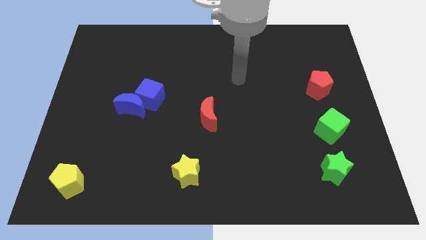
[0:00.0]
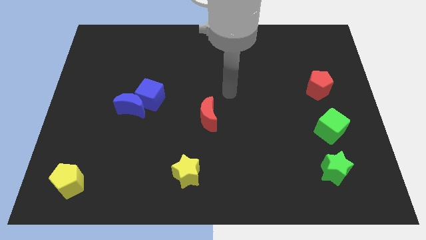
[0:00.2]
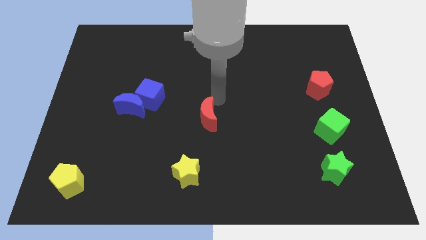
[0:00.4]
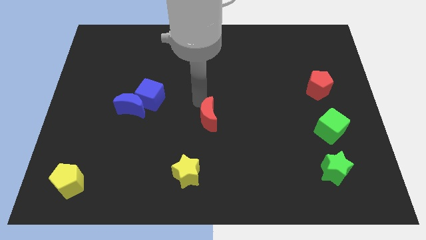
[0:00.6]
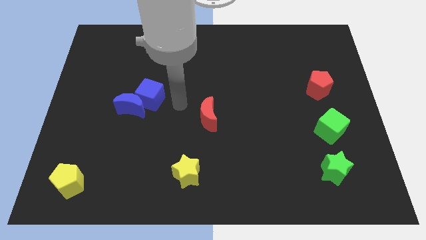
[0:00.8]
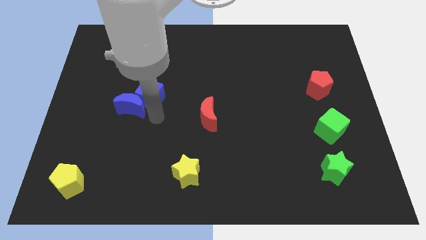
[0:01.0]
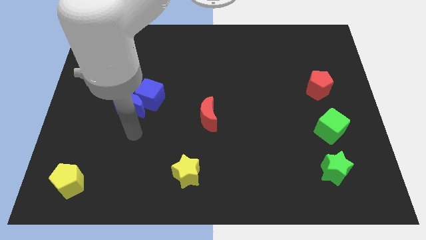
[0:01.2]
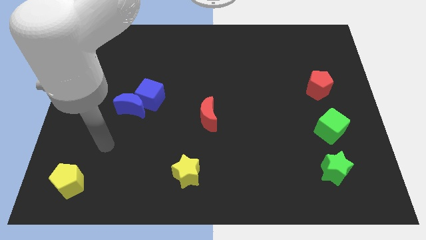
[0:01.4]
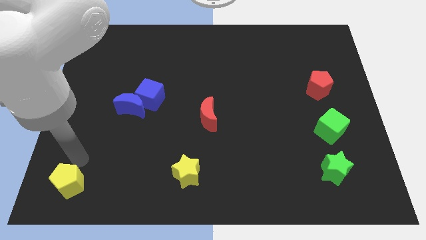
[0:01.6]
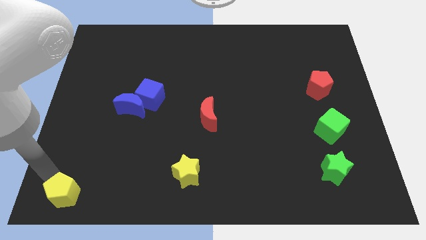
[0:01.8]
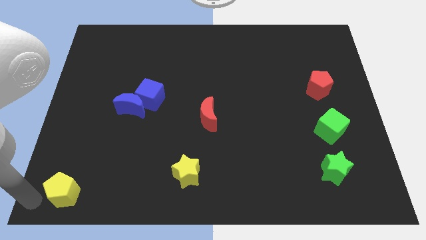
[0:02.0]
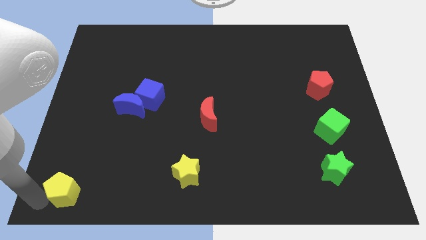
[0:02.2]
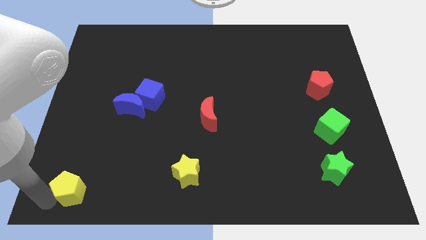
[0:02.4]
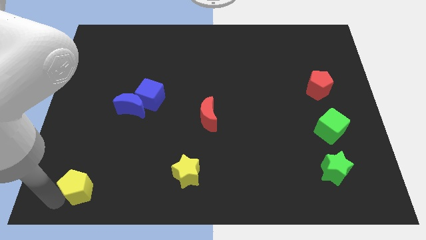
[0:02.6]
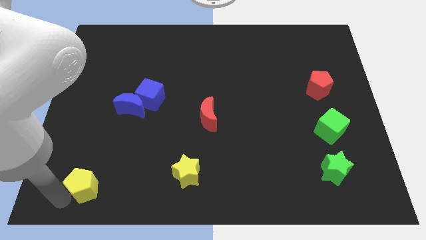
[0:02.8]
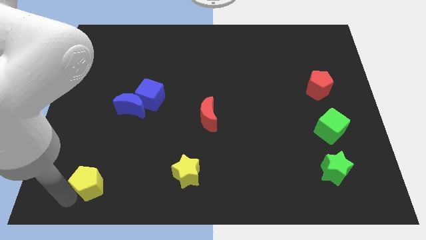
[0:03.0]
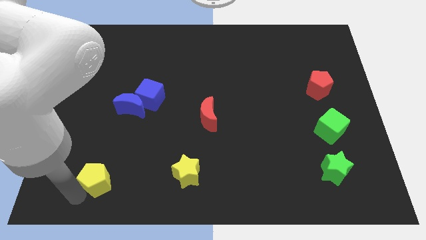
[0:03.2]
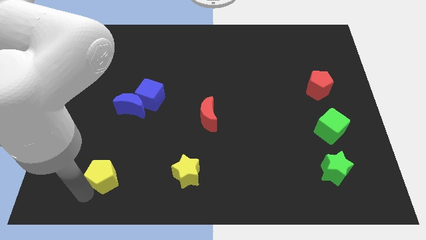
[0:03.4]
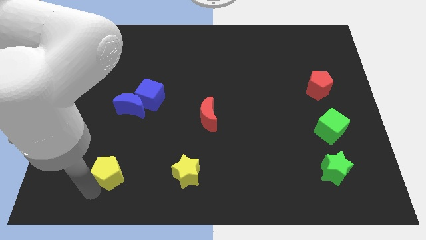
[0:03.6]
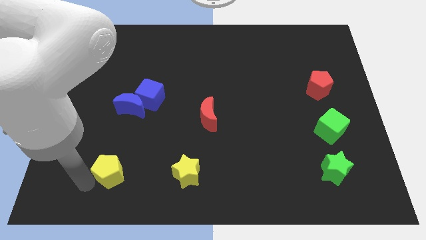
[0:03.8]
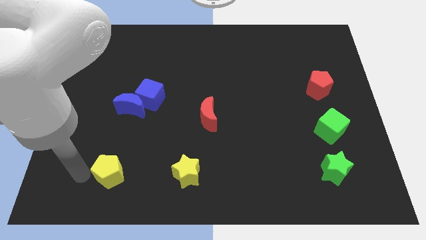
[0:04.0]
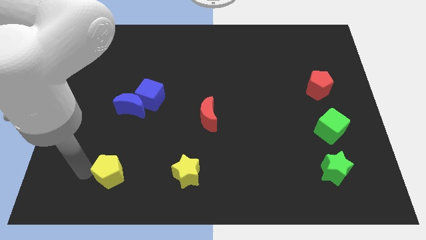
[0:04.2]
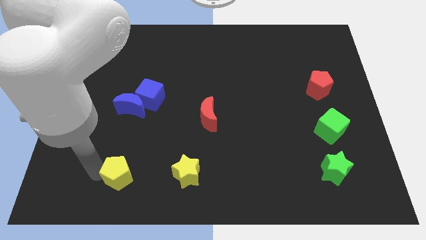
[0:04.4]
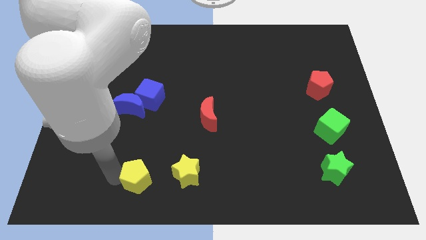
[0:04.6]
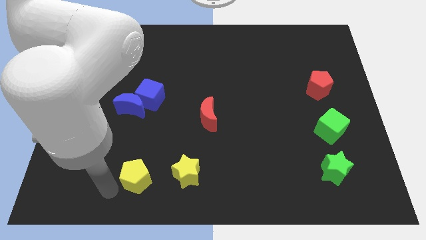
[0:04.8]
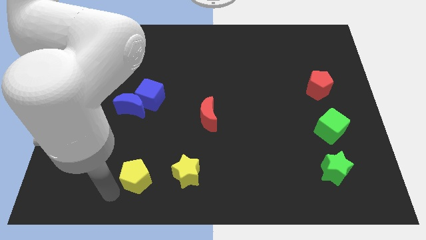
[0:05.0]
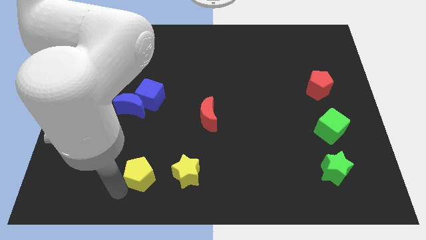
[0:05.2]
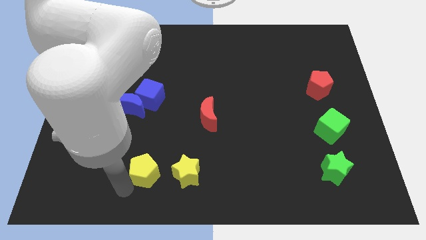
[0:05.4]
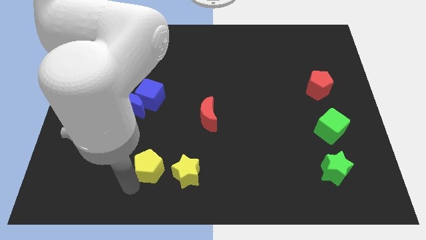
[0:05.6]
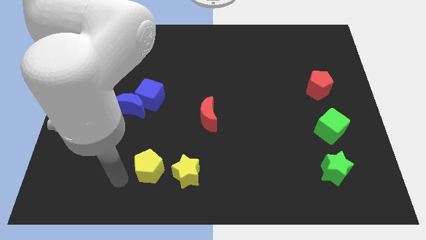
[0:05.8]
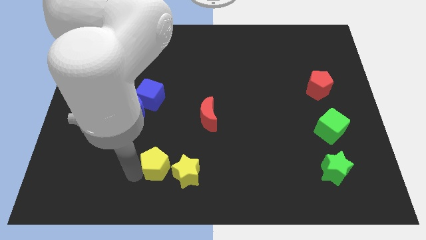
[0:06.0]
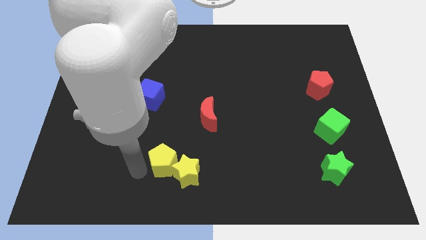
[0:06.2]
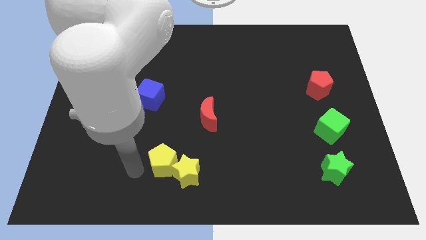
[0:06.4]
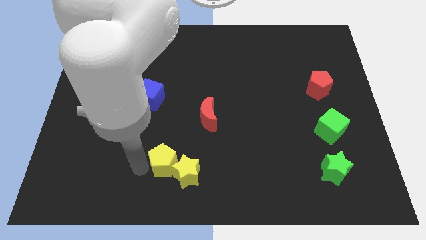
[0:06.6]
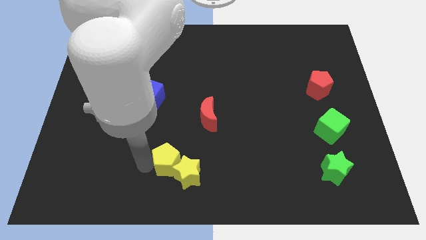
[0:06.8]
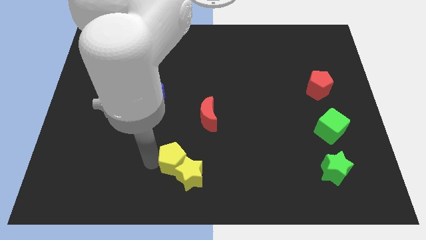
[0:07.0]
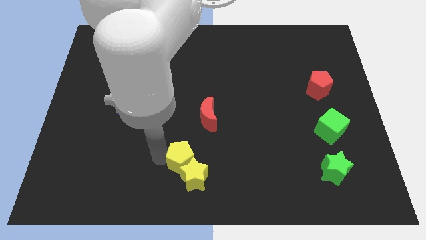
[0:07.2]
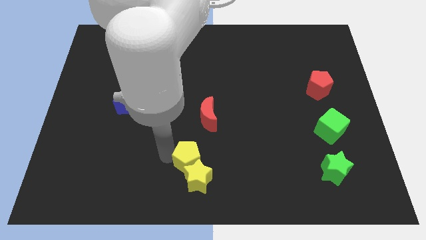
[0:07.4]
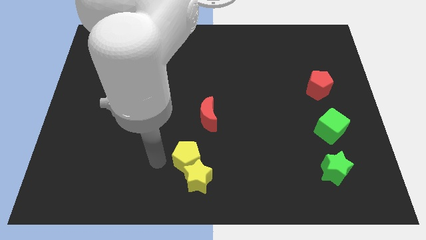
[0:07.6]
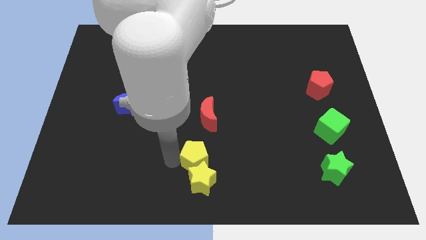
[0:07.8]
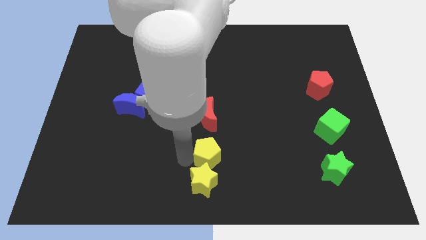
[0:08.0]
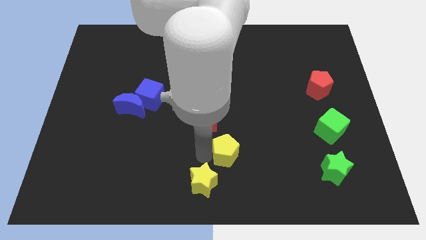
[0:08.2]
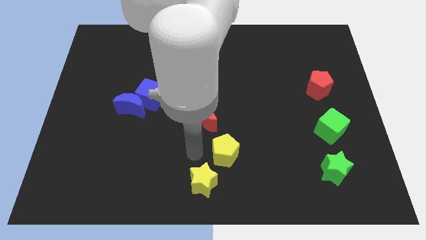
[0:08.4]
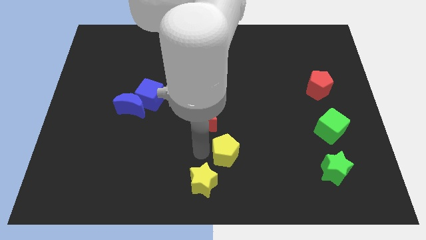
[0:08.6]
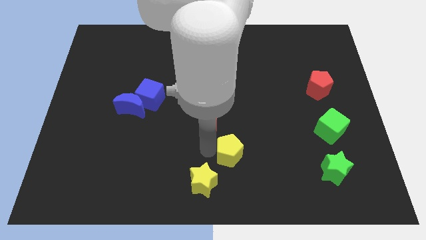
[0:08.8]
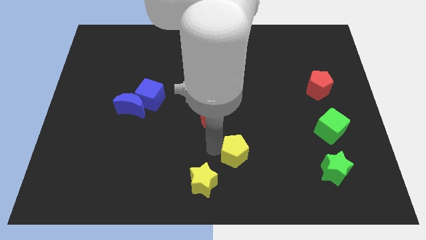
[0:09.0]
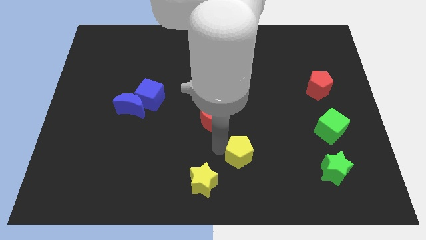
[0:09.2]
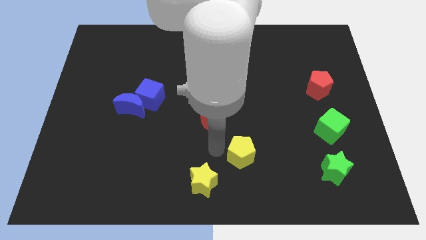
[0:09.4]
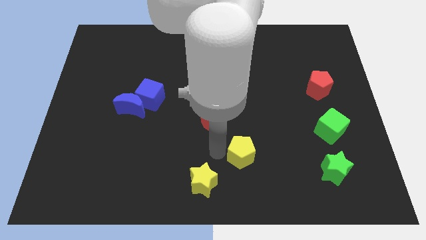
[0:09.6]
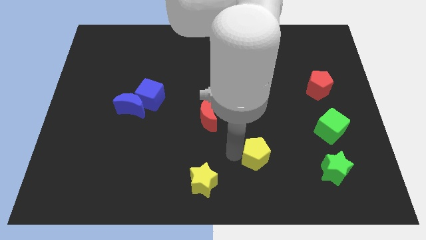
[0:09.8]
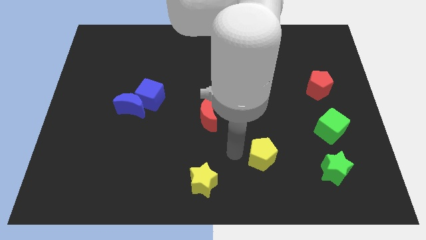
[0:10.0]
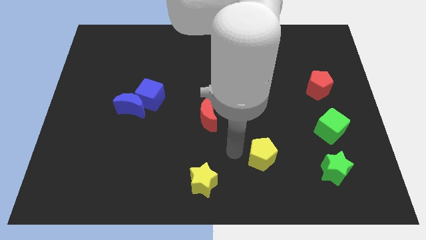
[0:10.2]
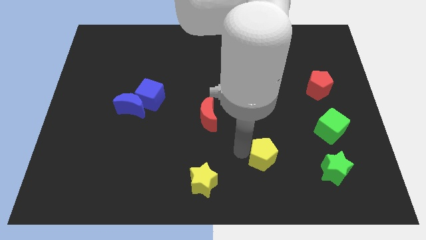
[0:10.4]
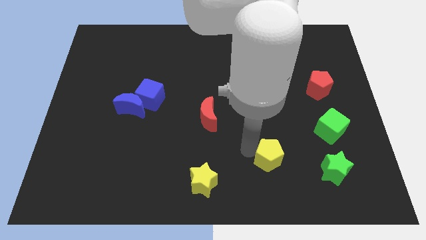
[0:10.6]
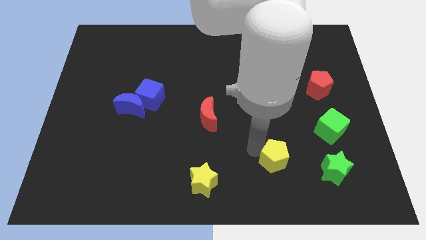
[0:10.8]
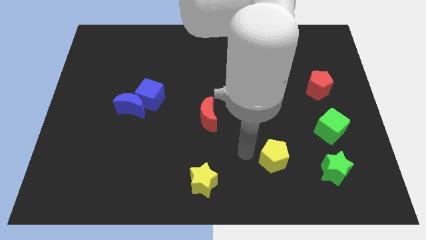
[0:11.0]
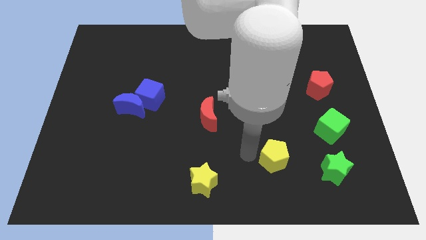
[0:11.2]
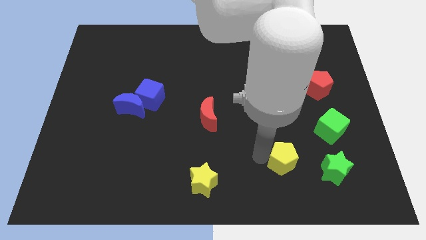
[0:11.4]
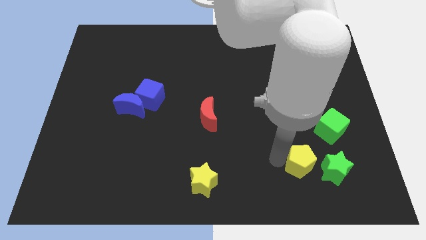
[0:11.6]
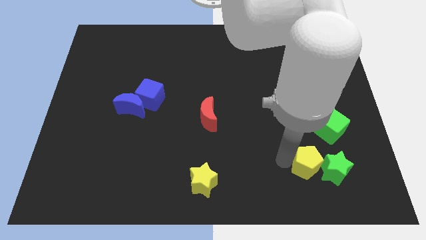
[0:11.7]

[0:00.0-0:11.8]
move the yellow pentagon to the green star

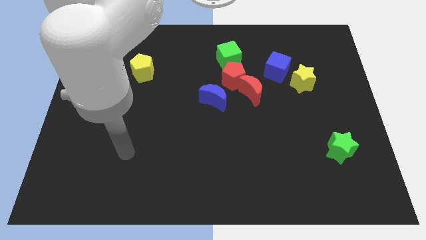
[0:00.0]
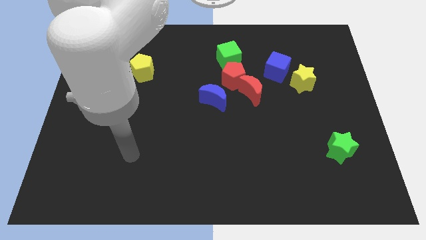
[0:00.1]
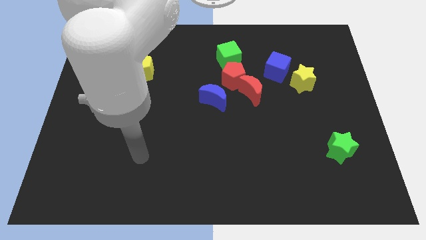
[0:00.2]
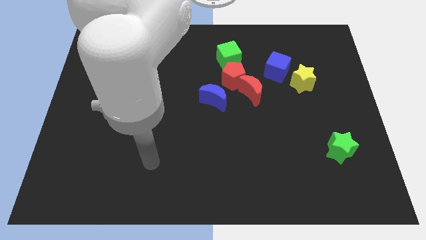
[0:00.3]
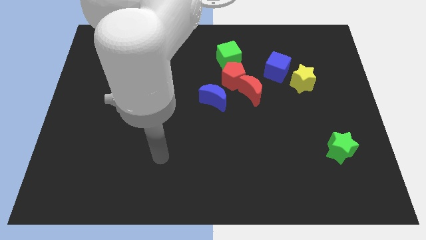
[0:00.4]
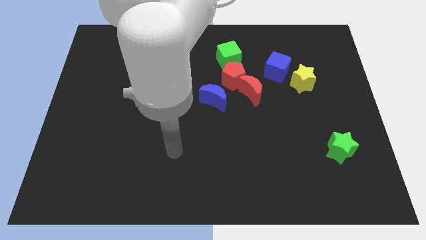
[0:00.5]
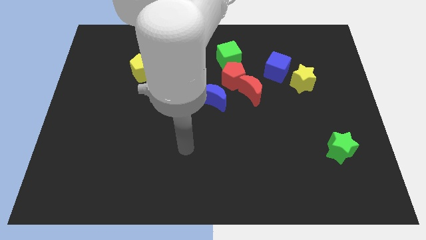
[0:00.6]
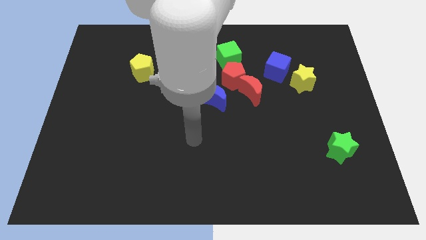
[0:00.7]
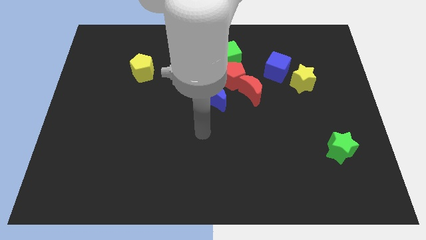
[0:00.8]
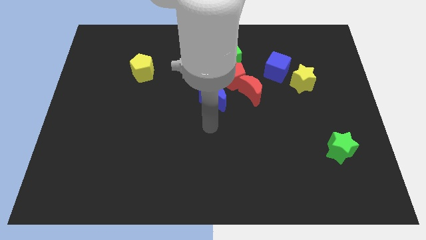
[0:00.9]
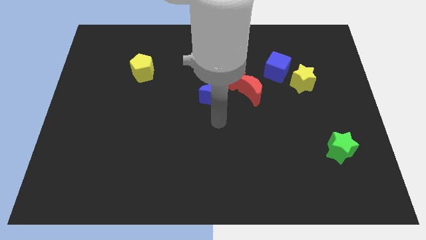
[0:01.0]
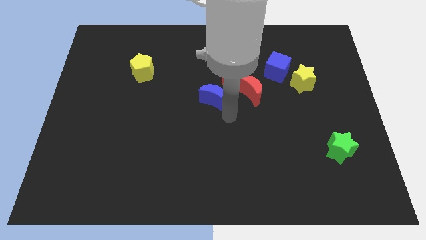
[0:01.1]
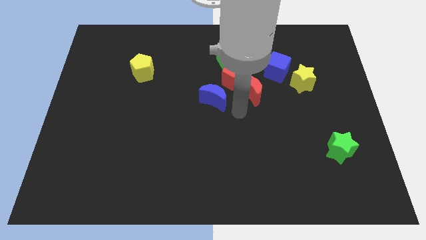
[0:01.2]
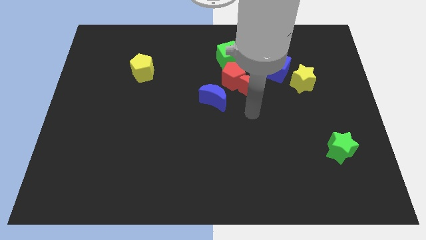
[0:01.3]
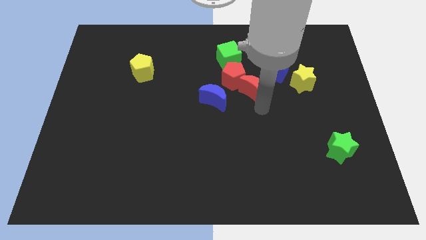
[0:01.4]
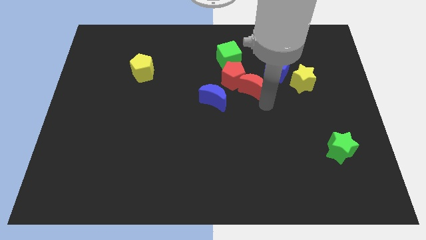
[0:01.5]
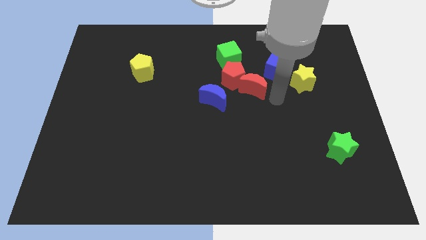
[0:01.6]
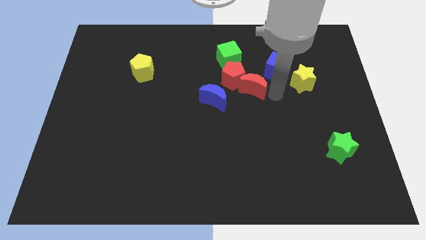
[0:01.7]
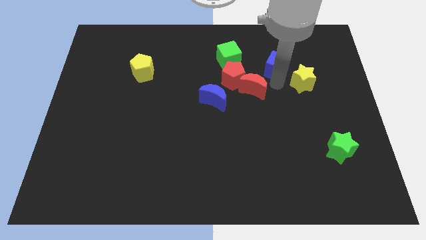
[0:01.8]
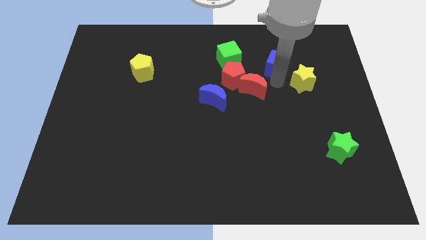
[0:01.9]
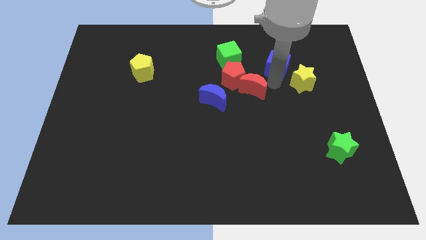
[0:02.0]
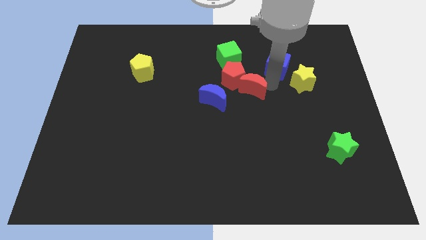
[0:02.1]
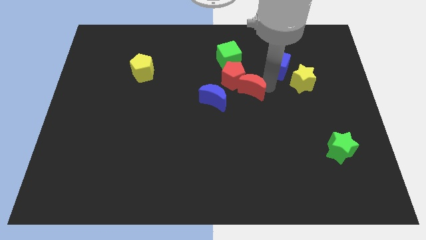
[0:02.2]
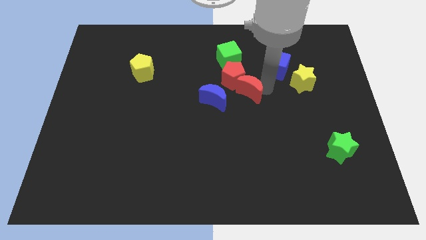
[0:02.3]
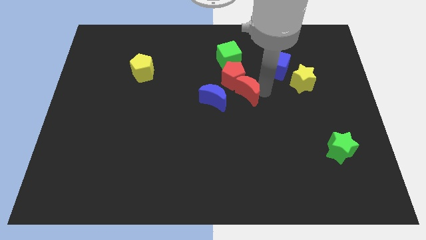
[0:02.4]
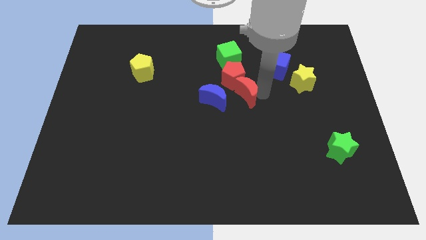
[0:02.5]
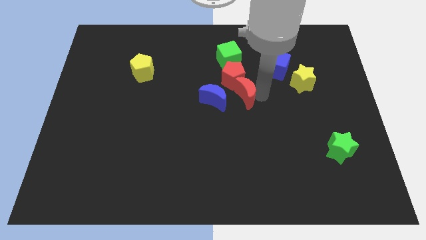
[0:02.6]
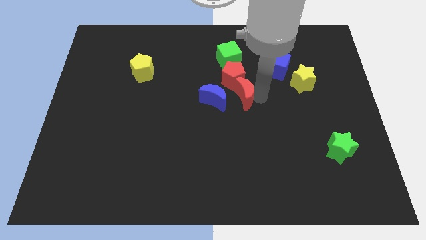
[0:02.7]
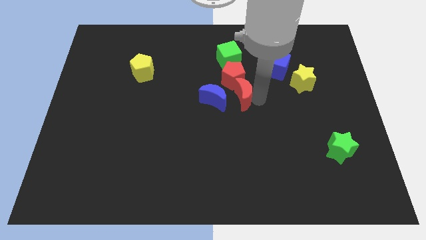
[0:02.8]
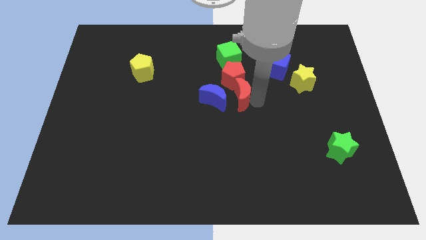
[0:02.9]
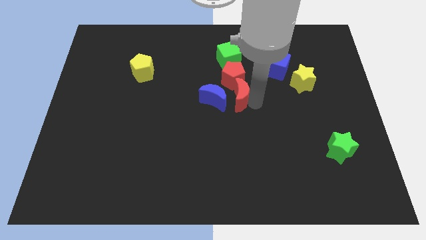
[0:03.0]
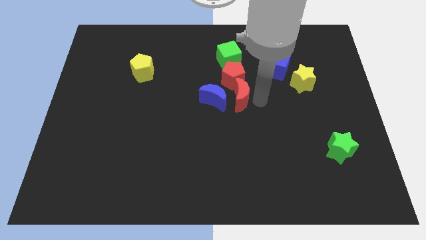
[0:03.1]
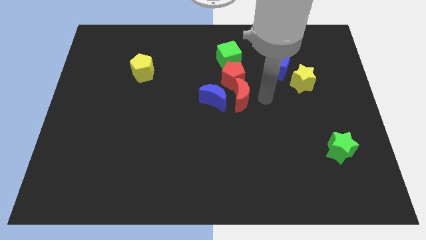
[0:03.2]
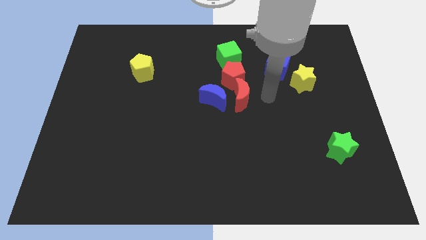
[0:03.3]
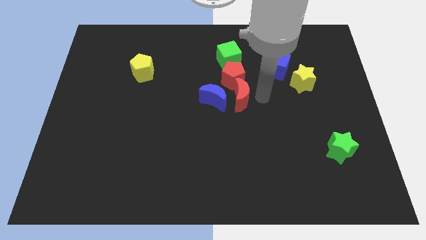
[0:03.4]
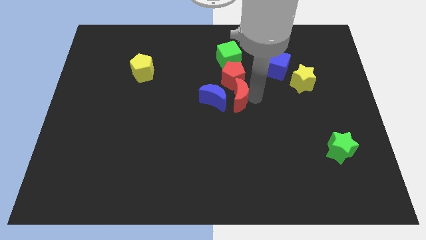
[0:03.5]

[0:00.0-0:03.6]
move the red moon to the blue moon
